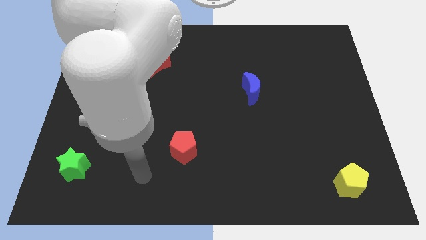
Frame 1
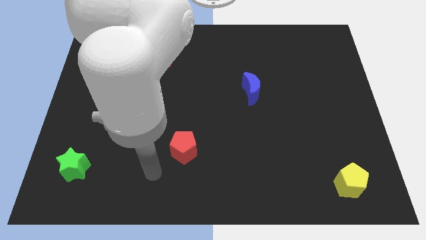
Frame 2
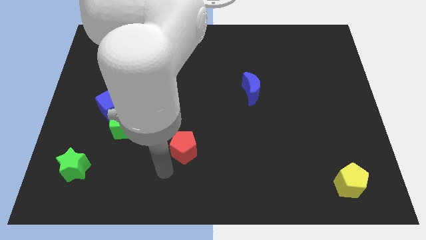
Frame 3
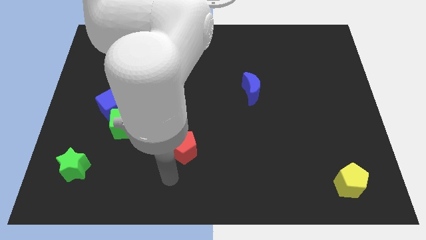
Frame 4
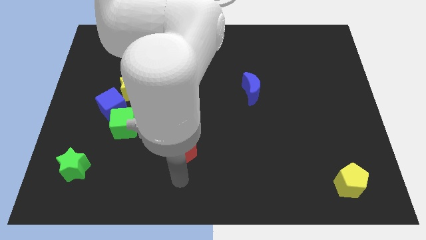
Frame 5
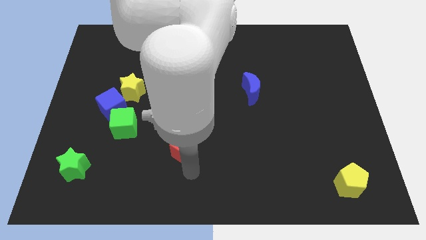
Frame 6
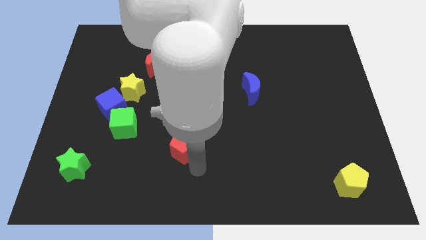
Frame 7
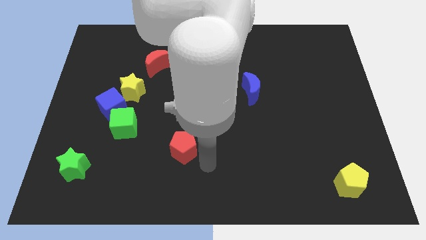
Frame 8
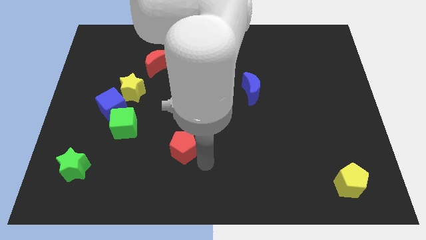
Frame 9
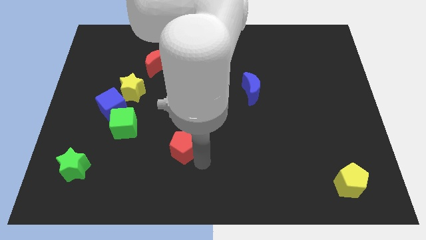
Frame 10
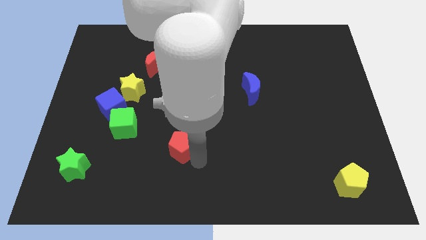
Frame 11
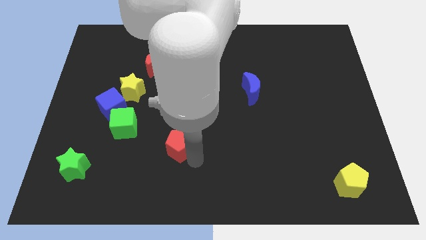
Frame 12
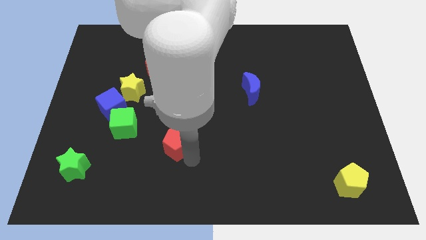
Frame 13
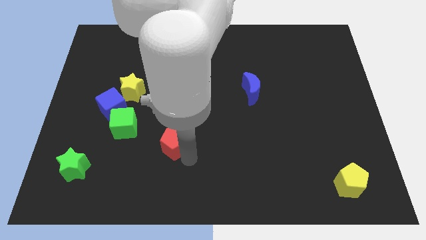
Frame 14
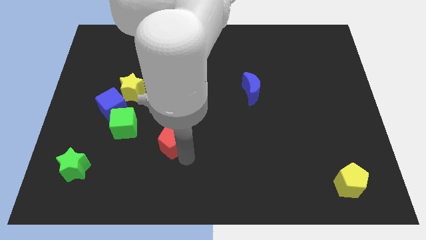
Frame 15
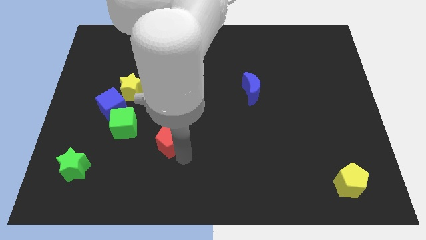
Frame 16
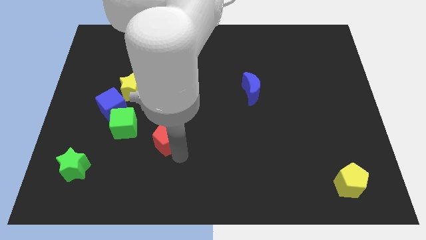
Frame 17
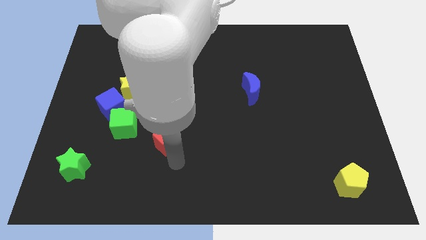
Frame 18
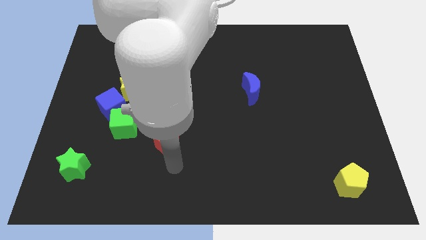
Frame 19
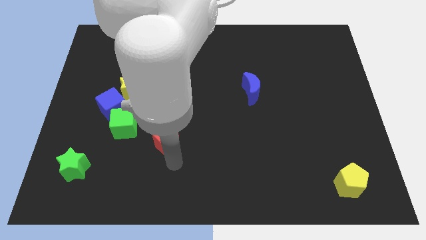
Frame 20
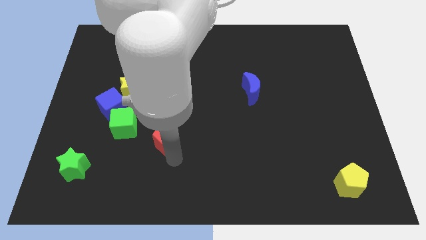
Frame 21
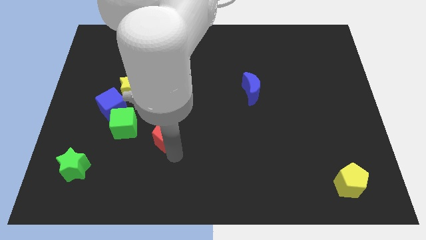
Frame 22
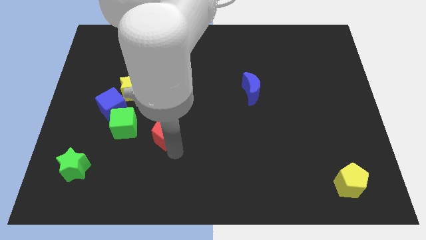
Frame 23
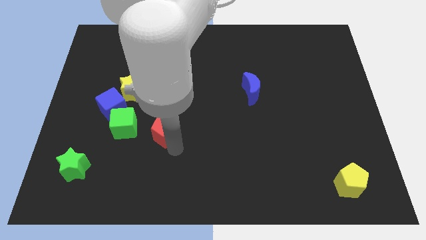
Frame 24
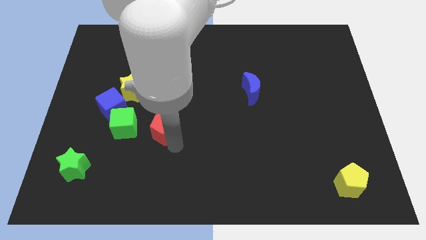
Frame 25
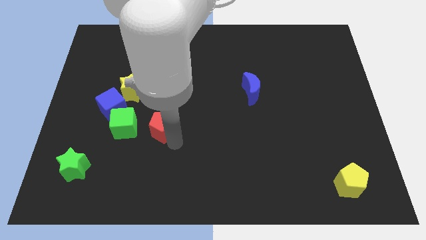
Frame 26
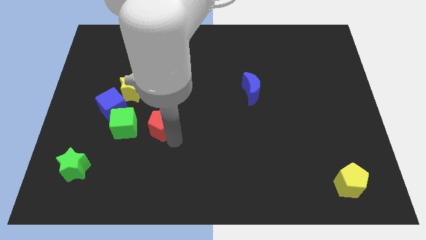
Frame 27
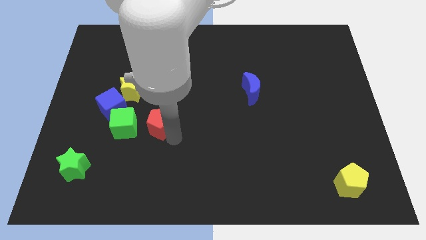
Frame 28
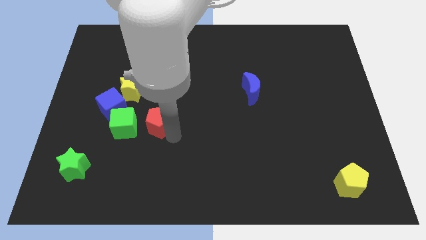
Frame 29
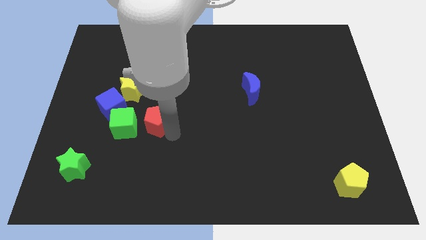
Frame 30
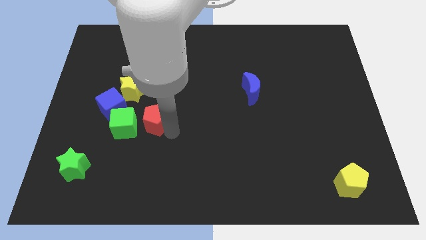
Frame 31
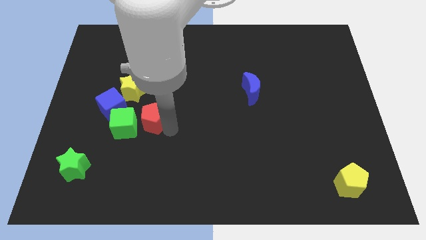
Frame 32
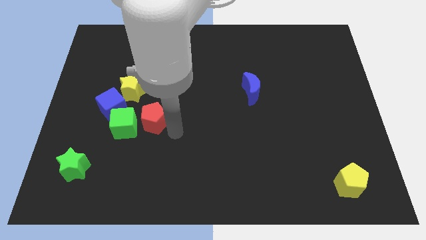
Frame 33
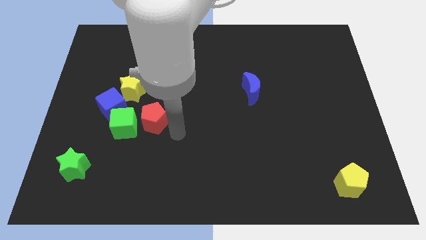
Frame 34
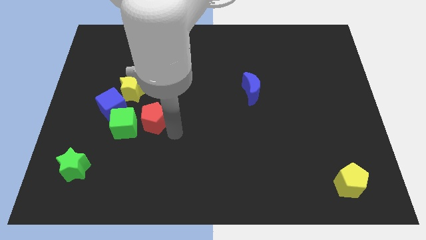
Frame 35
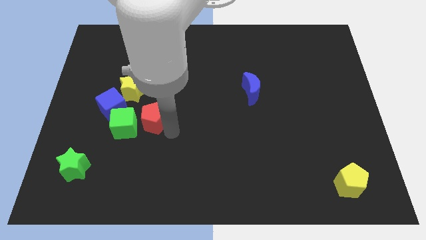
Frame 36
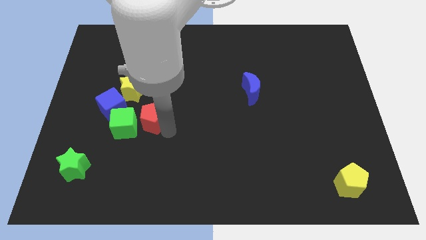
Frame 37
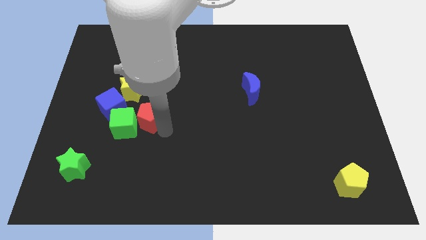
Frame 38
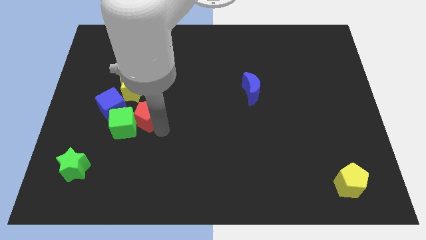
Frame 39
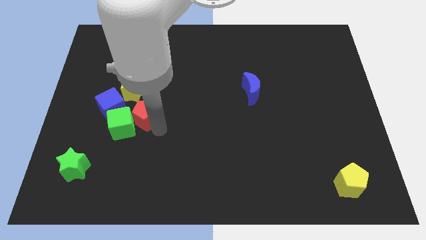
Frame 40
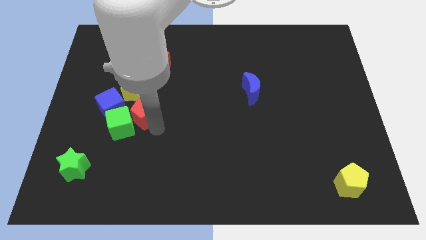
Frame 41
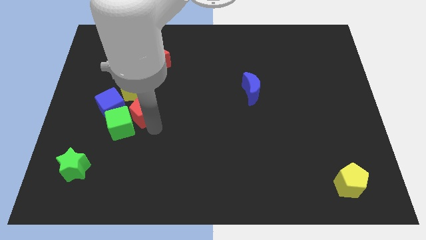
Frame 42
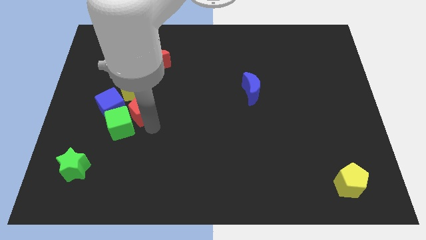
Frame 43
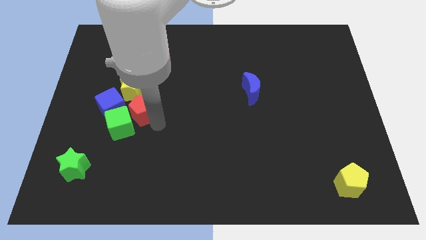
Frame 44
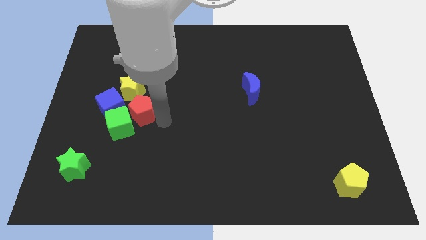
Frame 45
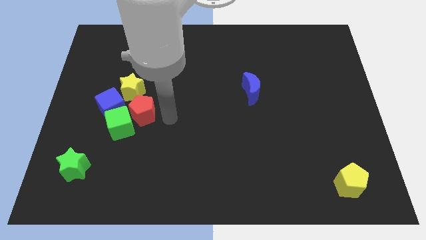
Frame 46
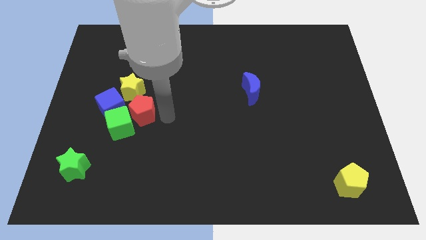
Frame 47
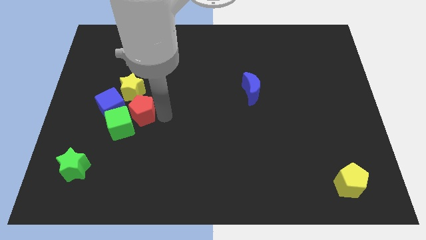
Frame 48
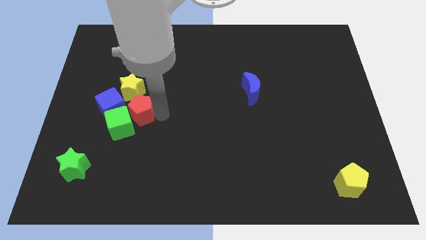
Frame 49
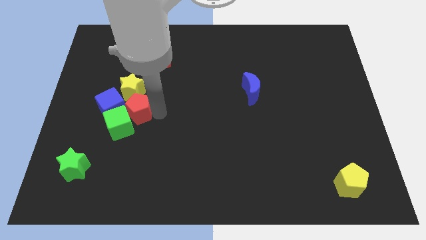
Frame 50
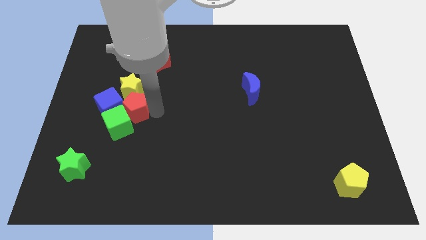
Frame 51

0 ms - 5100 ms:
move the red pentagon next to the blue cube

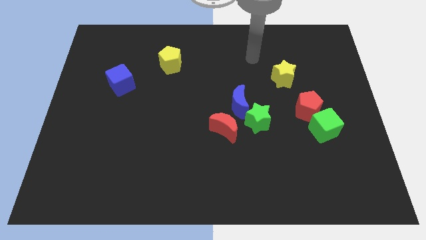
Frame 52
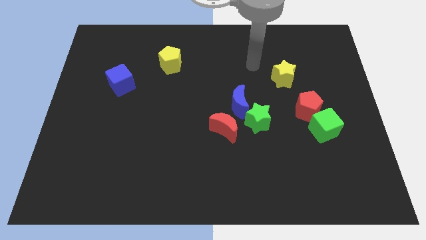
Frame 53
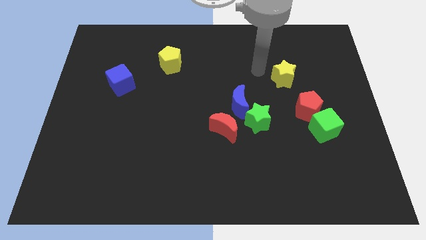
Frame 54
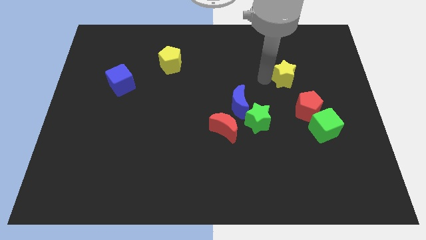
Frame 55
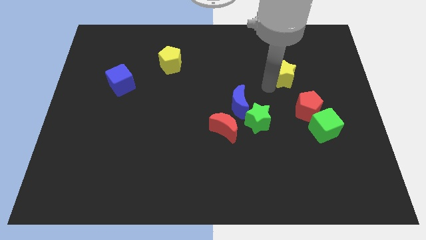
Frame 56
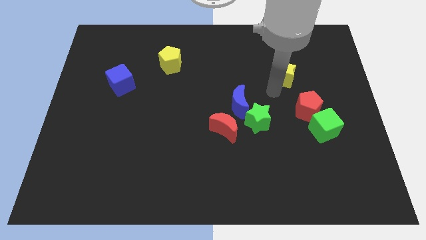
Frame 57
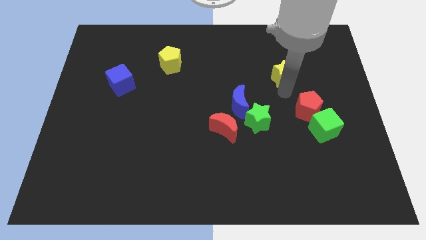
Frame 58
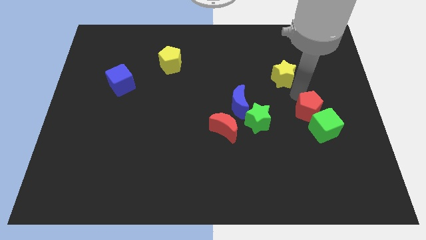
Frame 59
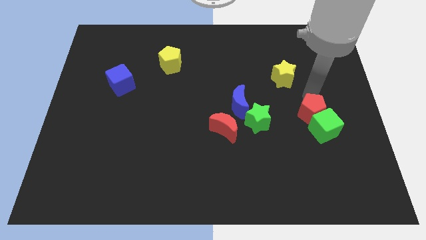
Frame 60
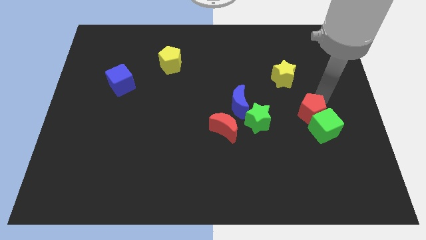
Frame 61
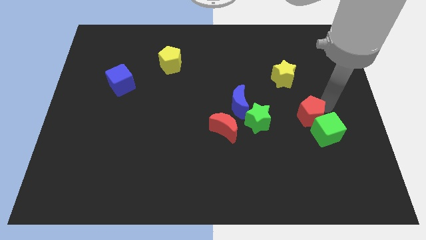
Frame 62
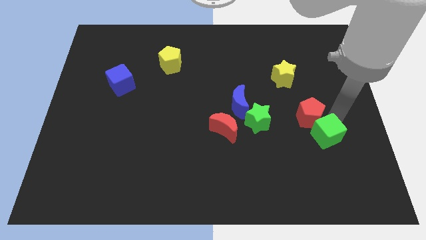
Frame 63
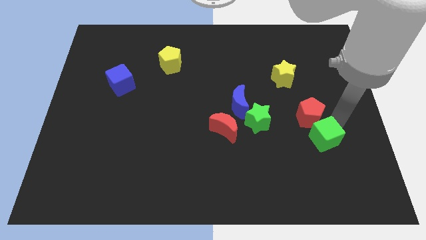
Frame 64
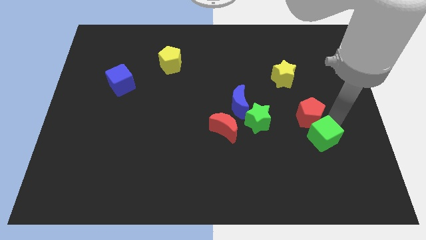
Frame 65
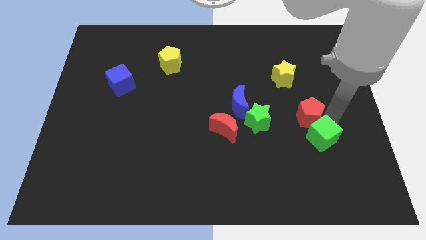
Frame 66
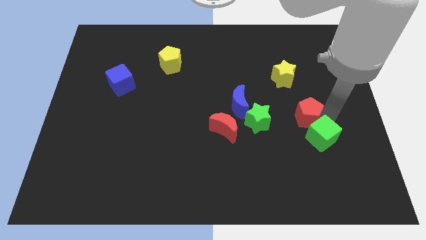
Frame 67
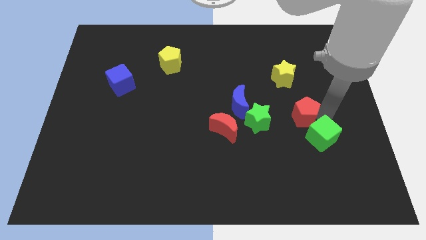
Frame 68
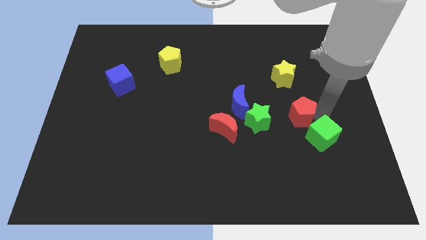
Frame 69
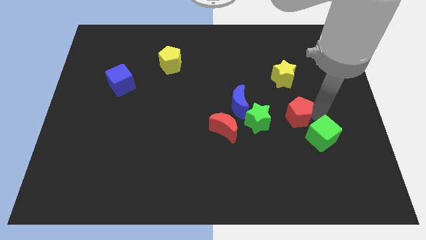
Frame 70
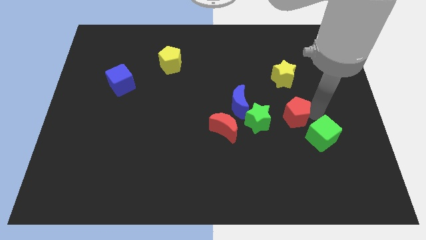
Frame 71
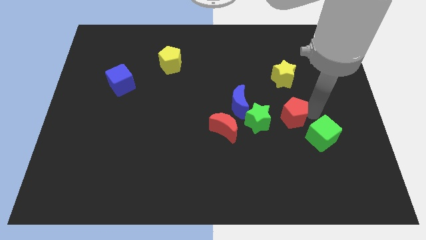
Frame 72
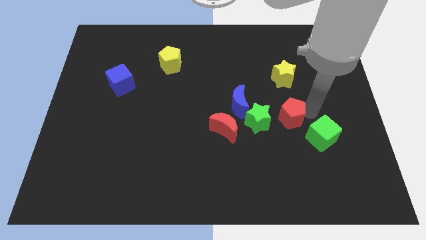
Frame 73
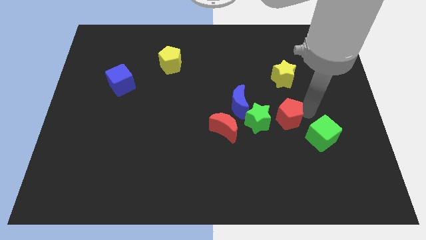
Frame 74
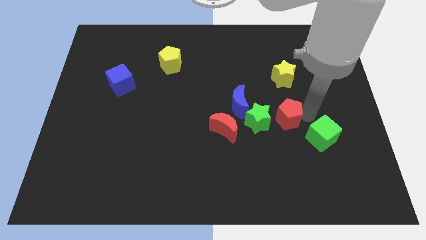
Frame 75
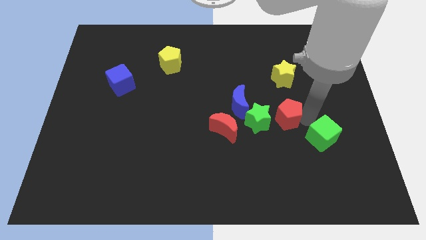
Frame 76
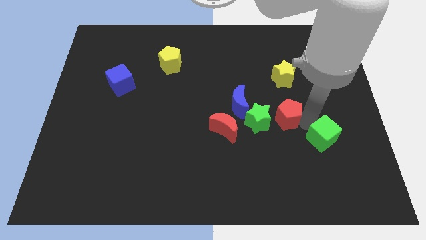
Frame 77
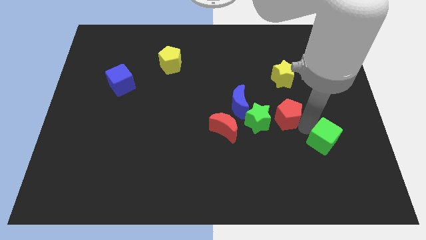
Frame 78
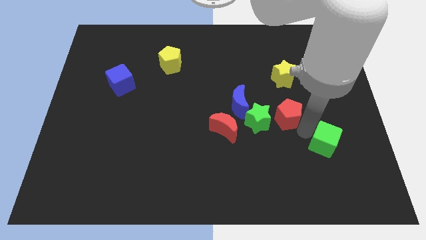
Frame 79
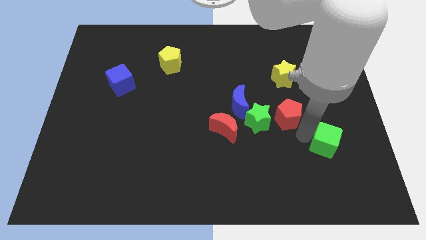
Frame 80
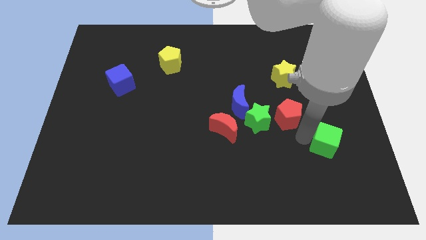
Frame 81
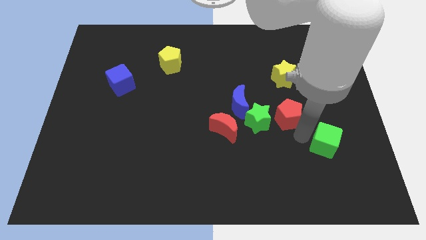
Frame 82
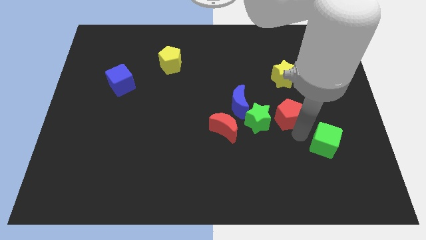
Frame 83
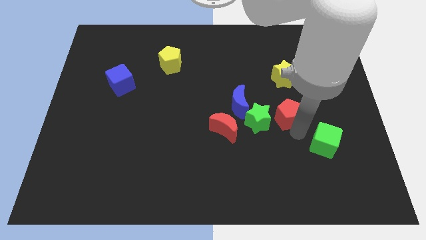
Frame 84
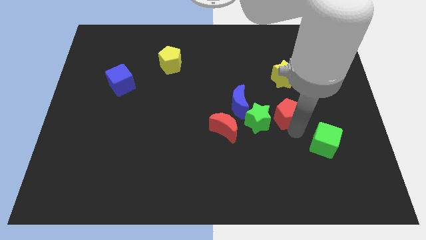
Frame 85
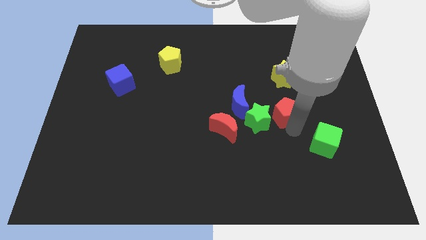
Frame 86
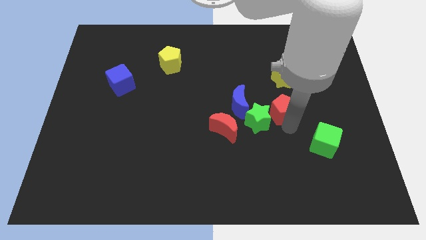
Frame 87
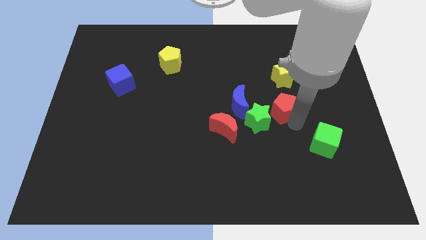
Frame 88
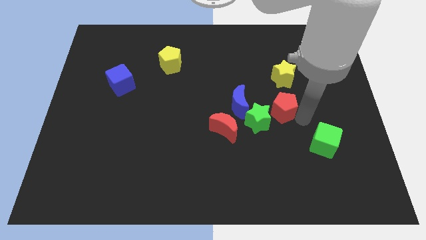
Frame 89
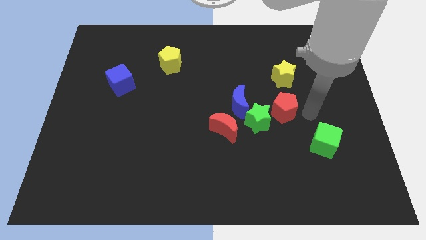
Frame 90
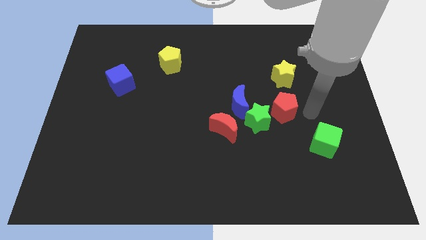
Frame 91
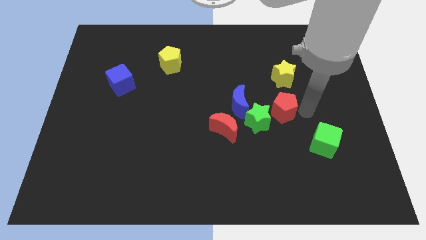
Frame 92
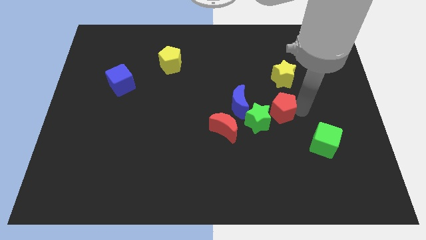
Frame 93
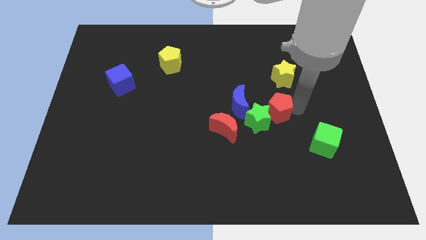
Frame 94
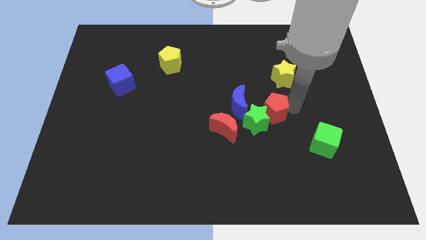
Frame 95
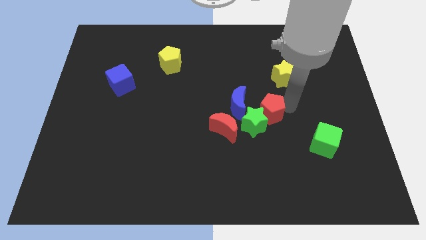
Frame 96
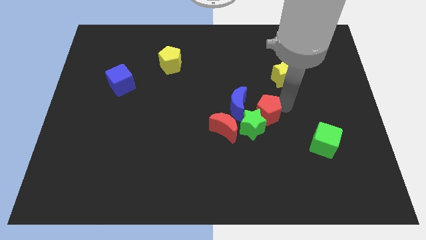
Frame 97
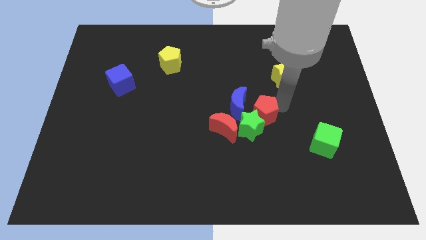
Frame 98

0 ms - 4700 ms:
slide the red pentagon close to the blue moon
